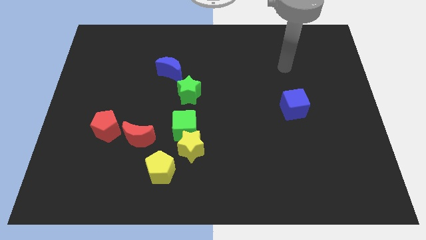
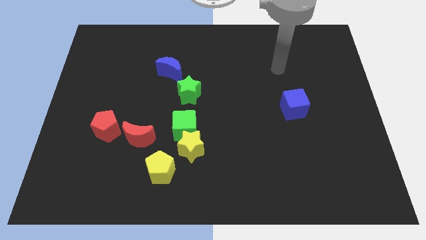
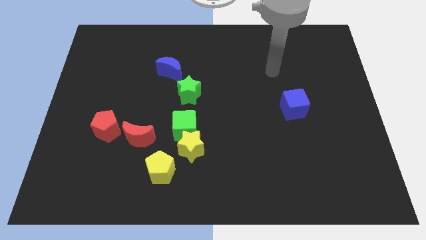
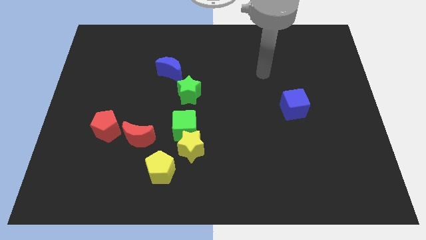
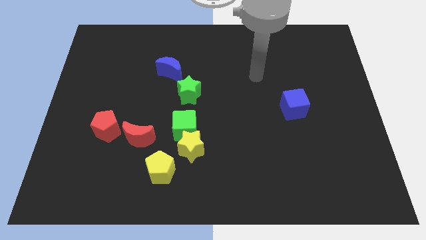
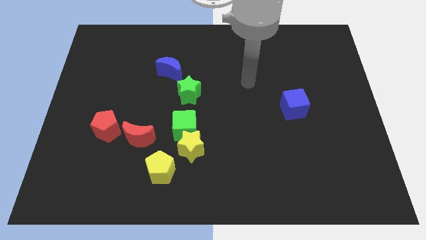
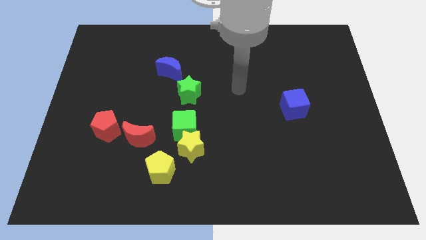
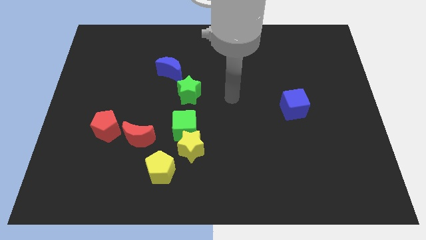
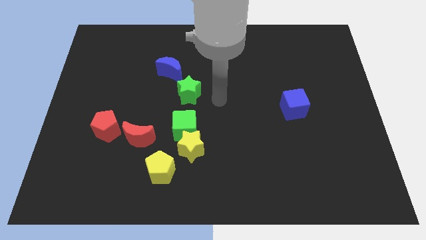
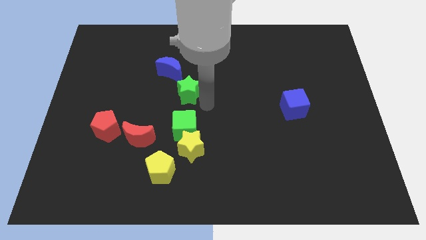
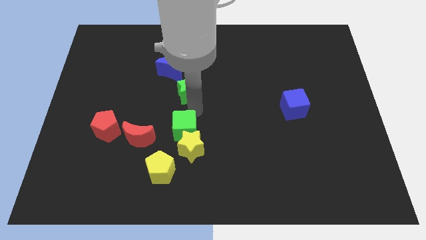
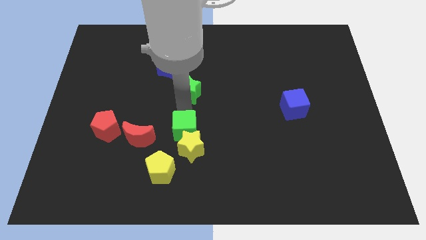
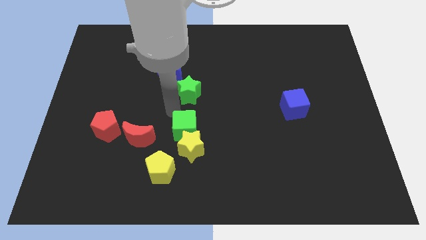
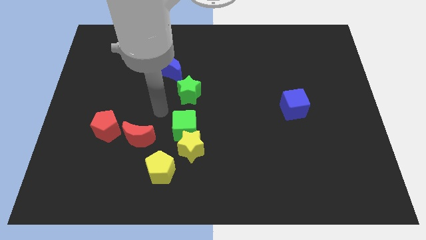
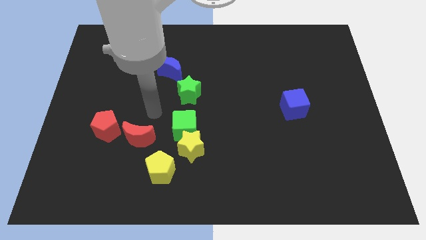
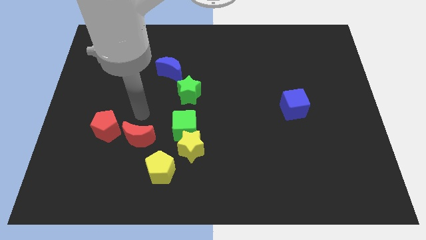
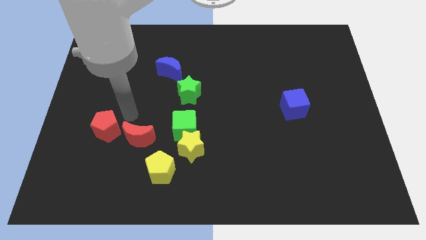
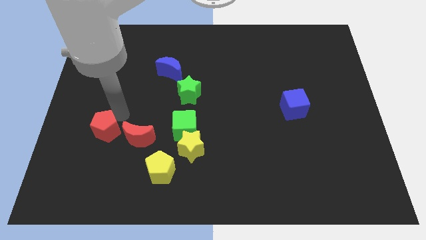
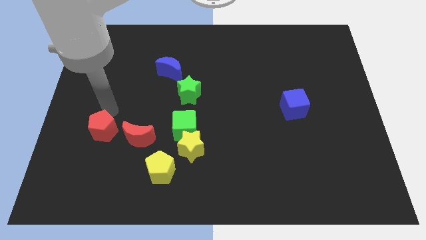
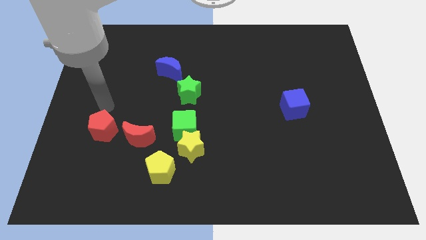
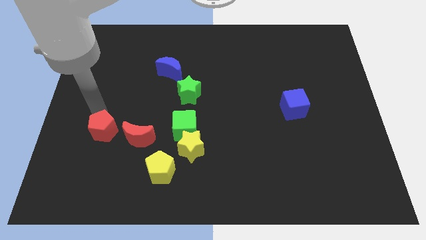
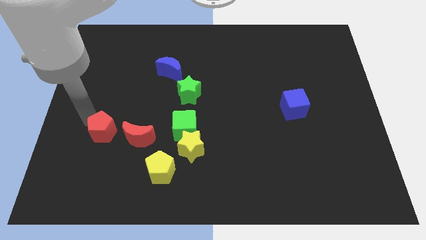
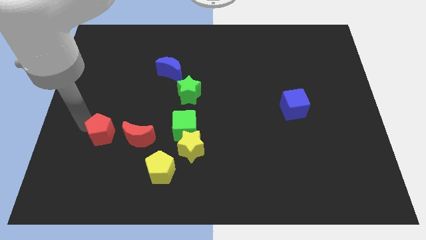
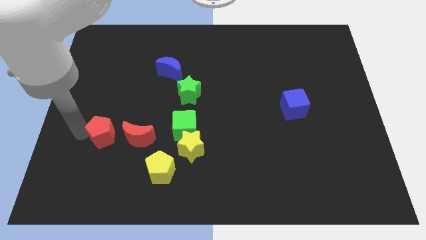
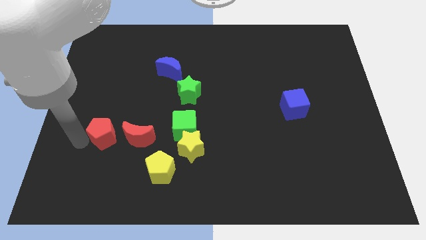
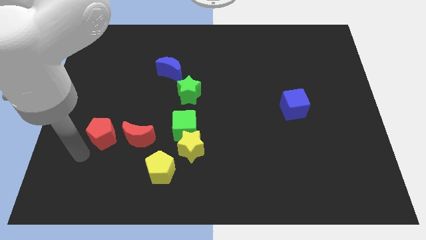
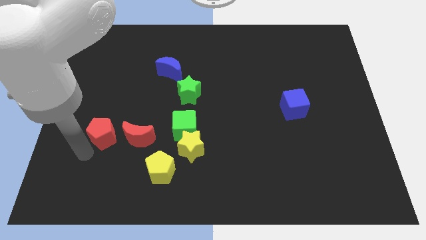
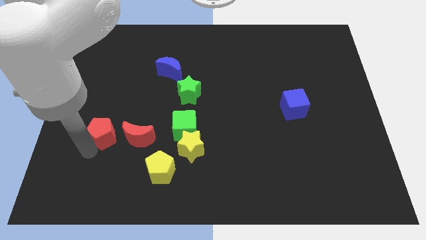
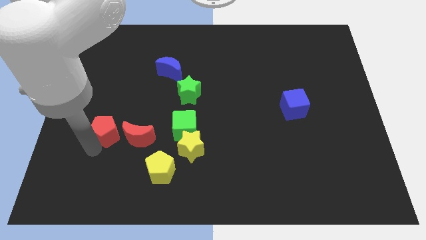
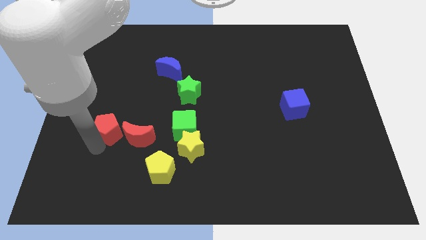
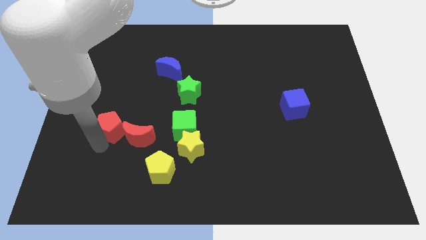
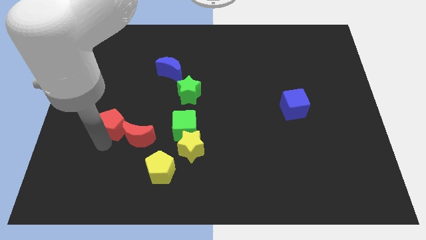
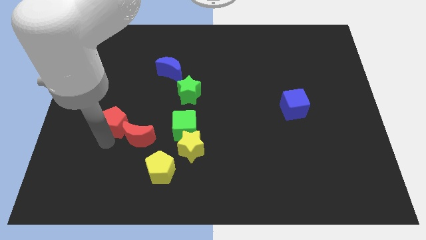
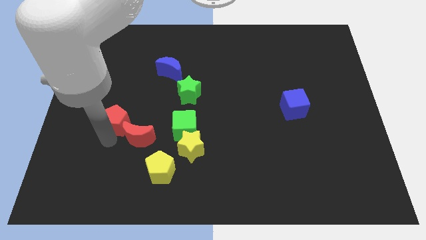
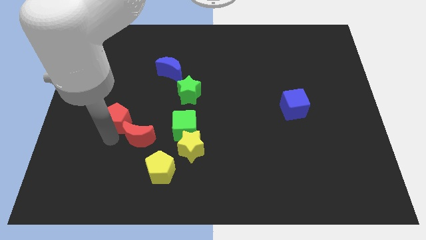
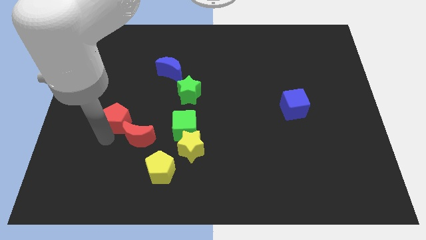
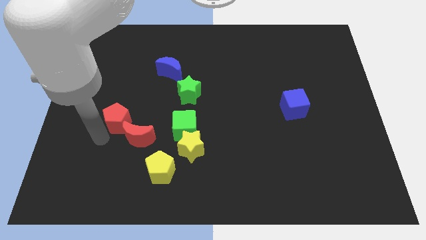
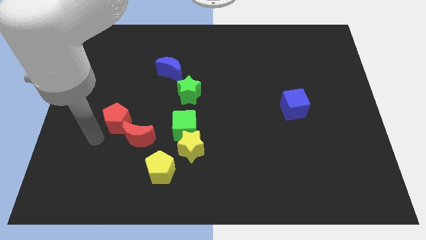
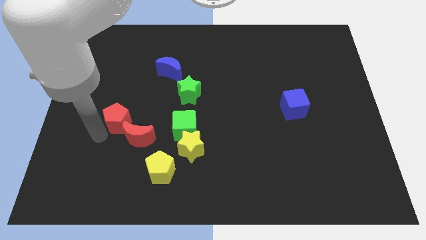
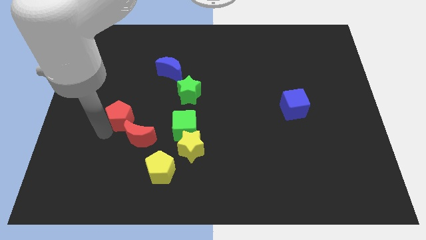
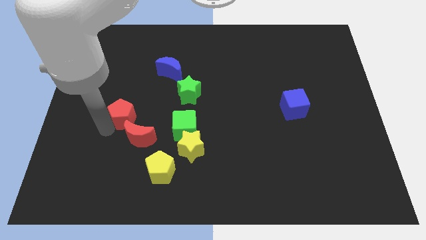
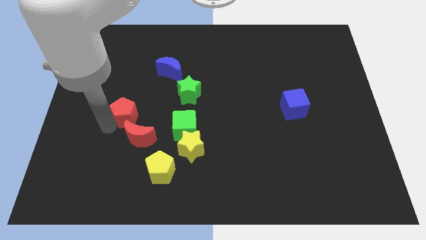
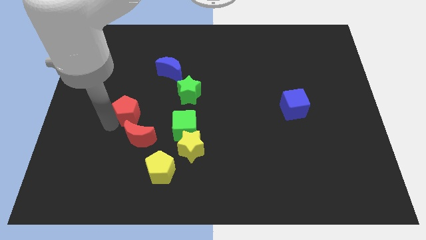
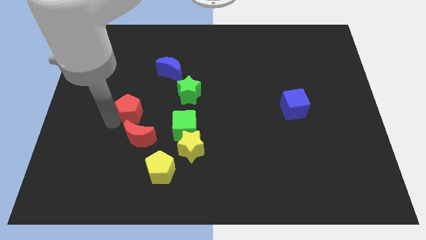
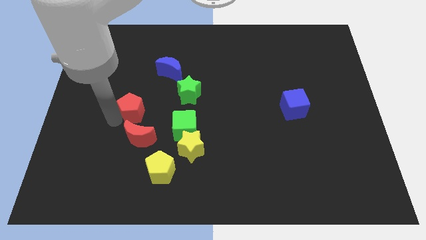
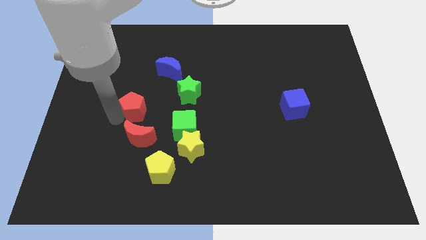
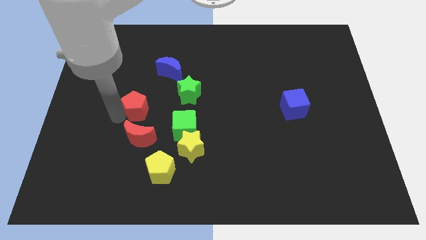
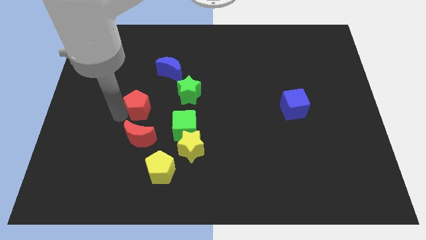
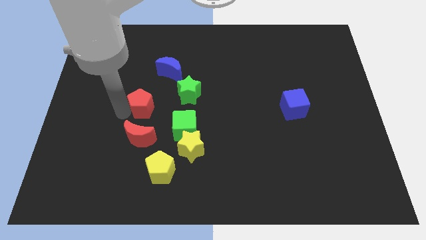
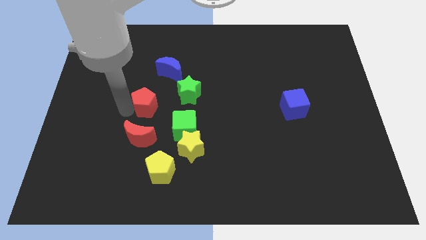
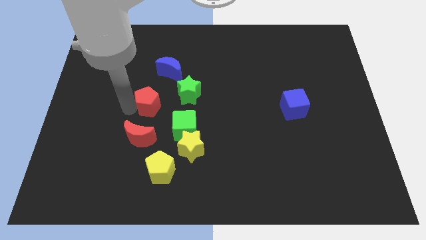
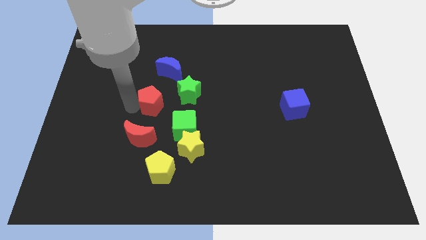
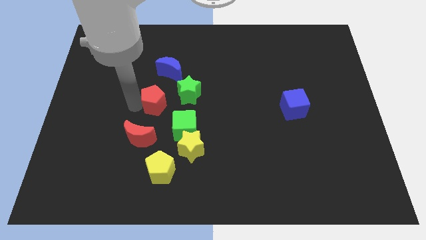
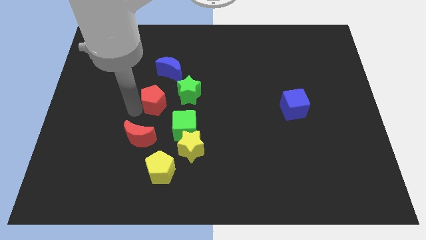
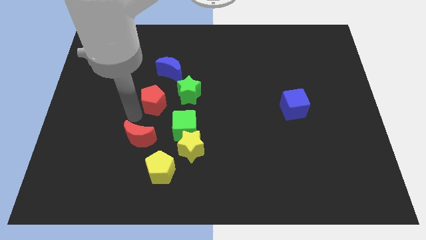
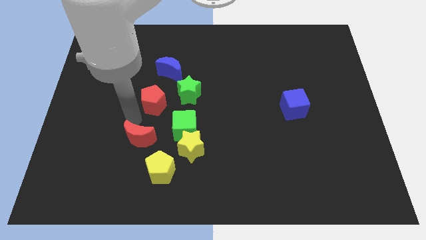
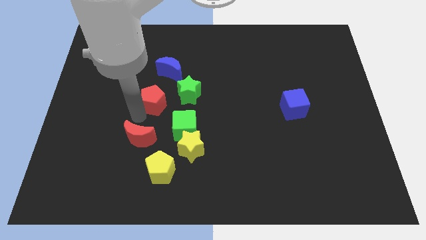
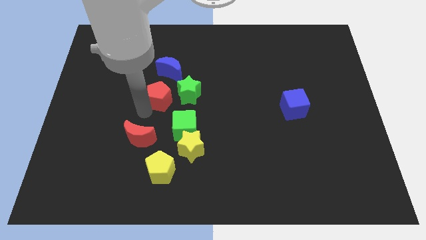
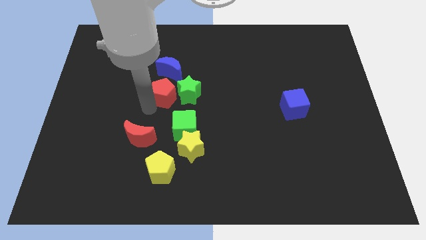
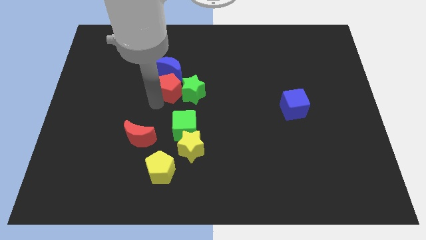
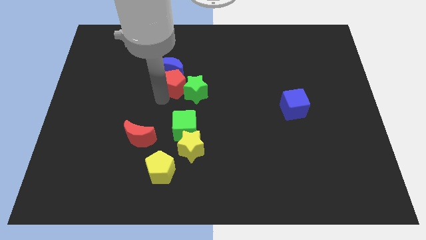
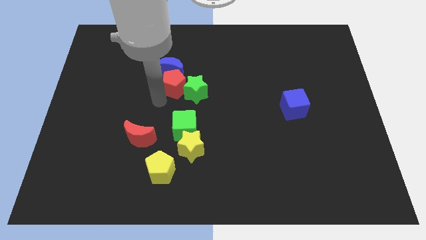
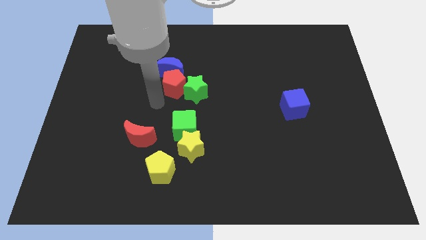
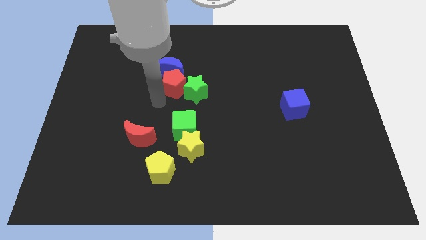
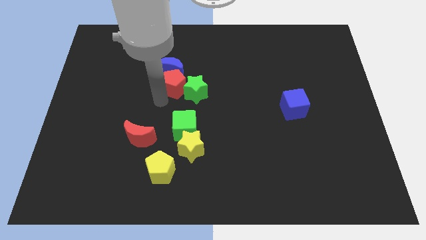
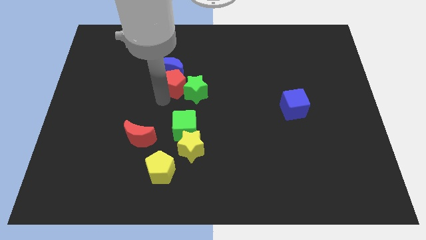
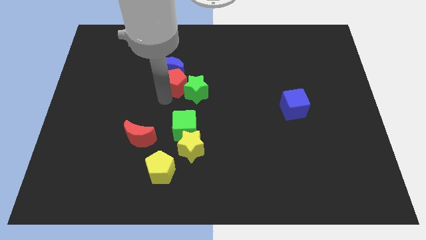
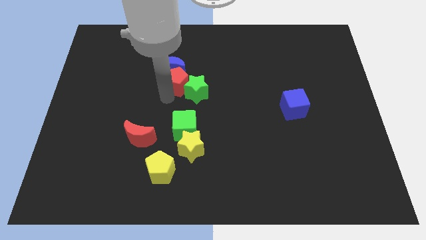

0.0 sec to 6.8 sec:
move the red pentagon up and to the right

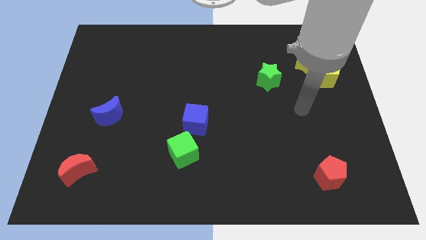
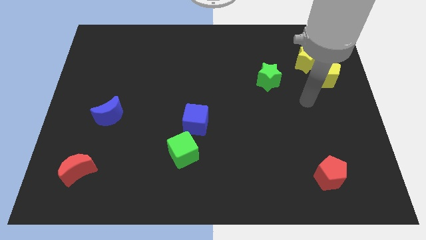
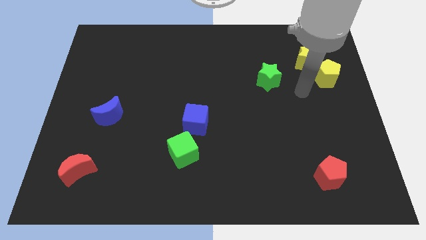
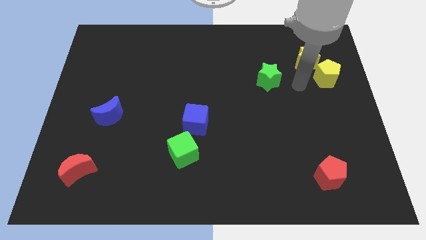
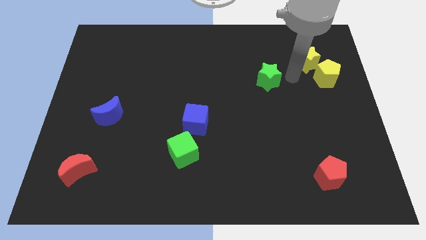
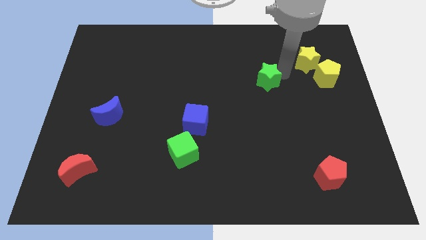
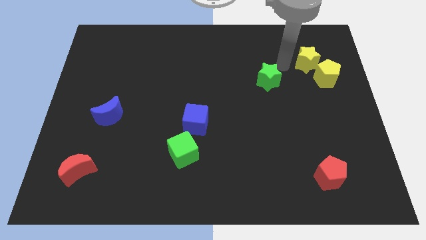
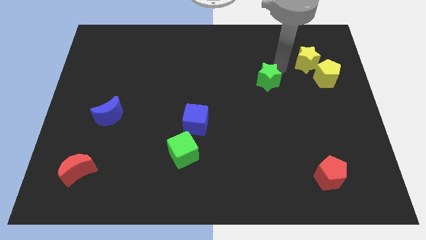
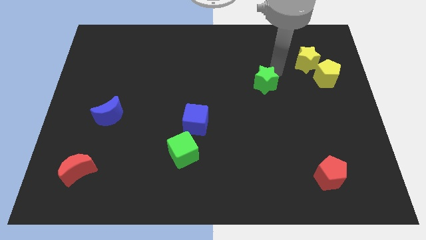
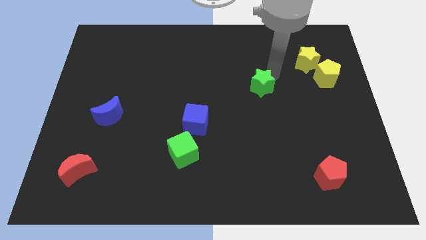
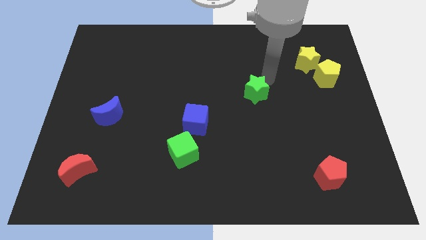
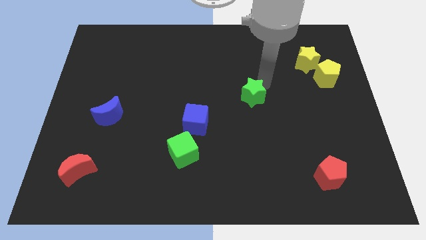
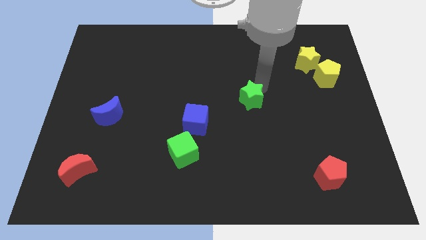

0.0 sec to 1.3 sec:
move the green star slightly downwards and then to the left

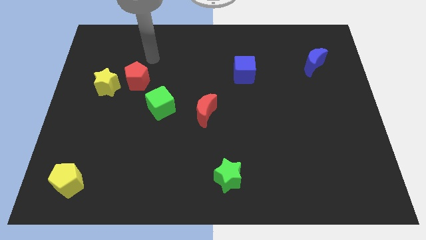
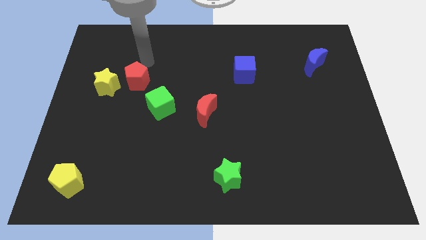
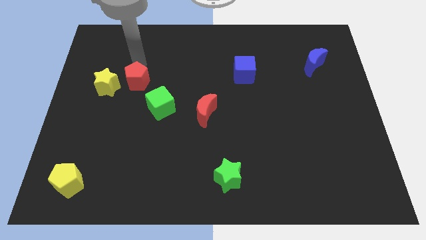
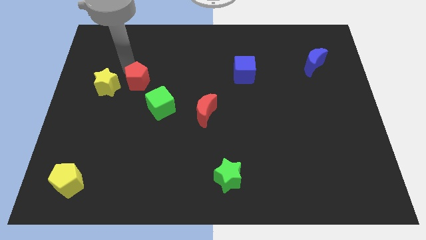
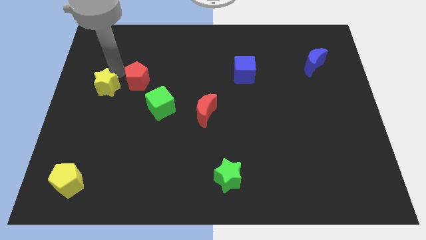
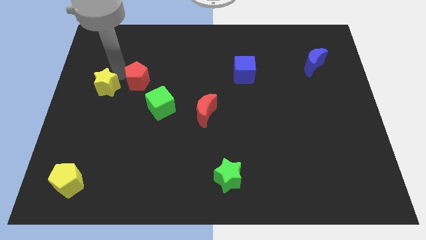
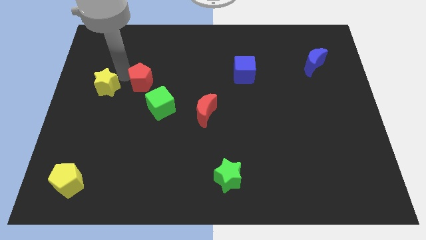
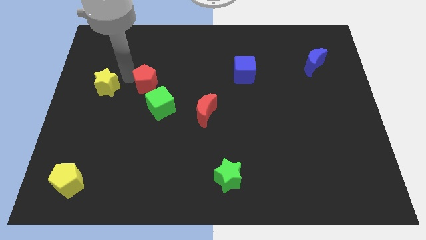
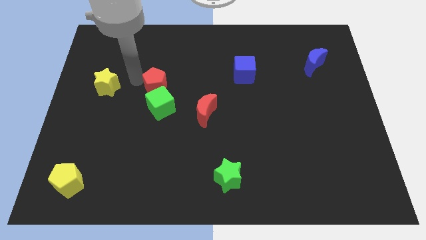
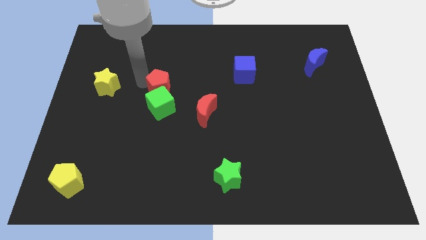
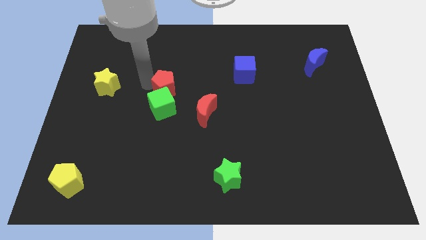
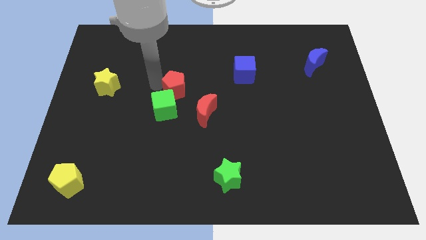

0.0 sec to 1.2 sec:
push the red pentagon down and right somewhat
